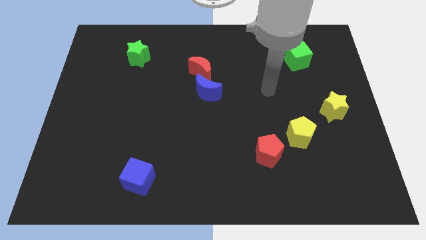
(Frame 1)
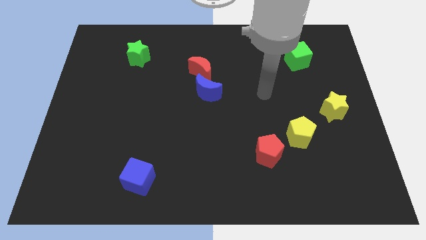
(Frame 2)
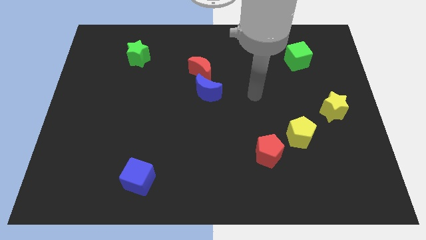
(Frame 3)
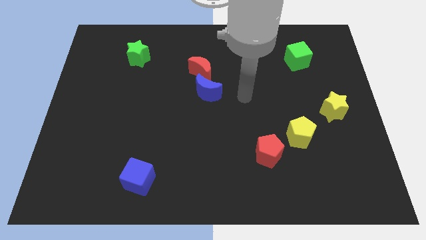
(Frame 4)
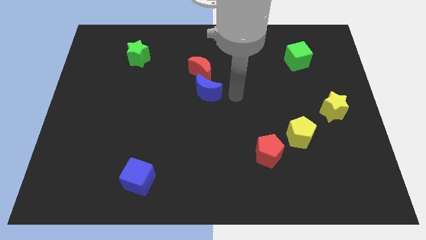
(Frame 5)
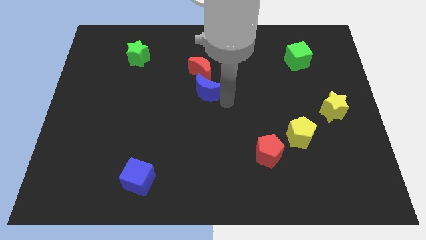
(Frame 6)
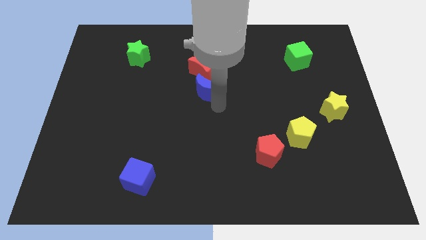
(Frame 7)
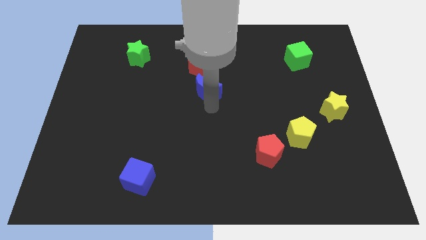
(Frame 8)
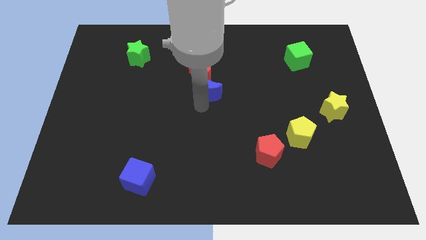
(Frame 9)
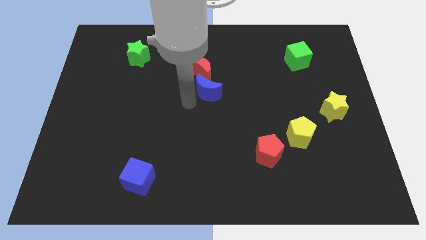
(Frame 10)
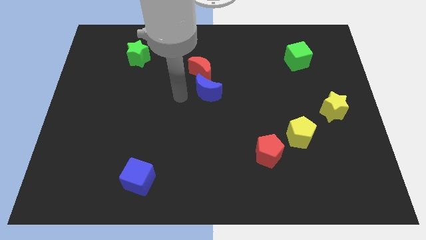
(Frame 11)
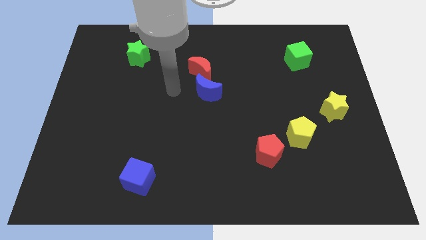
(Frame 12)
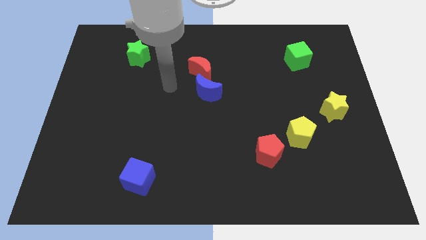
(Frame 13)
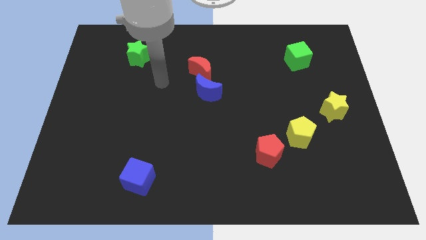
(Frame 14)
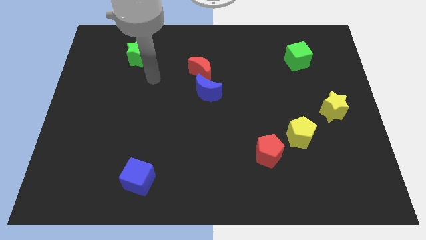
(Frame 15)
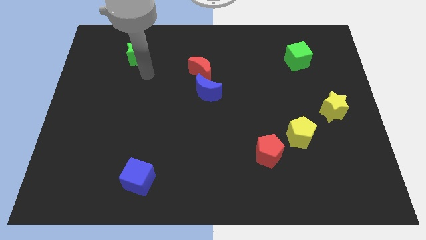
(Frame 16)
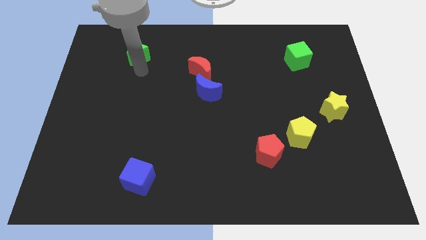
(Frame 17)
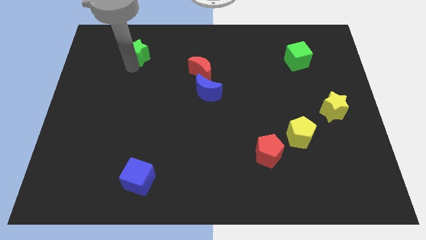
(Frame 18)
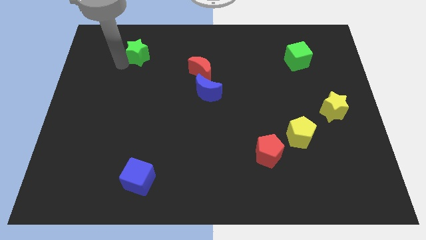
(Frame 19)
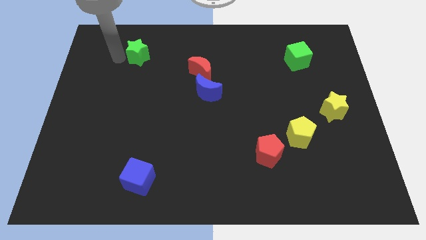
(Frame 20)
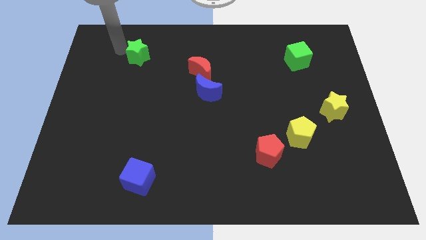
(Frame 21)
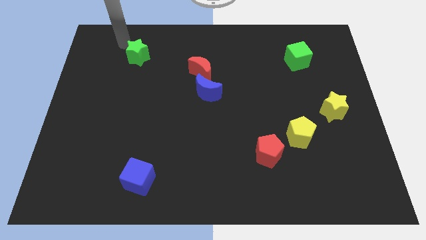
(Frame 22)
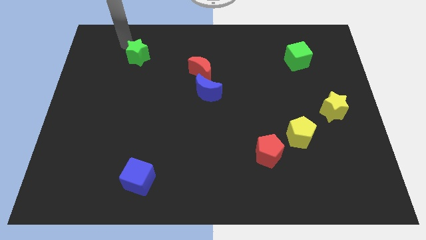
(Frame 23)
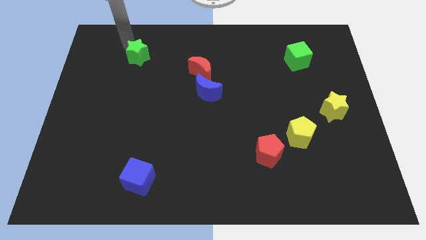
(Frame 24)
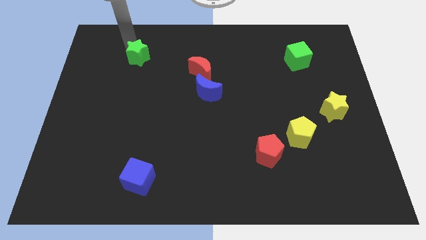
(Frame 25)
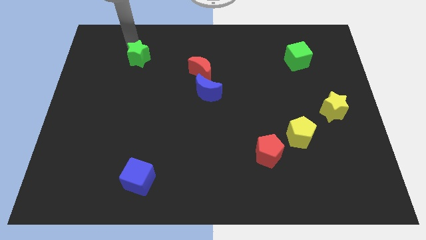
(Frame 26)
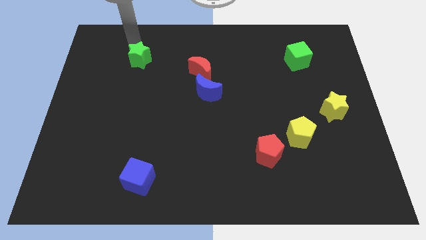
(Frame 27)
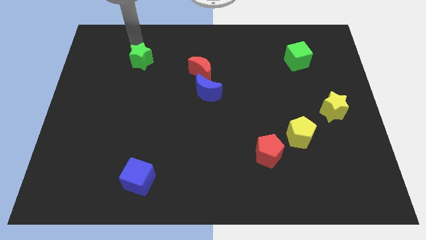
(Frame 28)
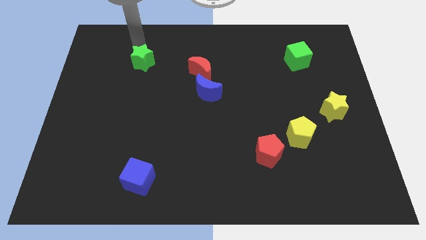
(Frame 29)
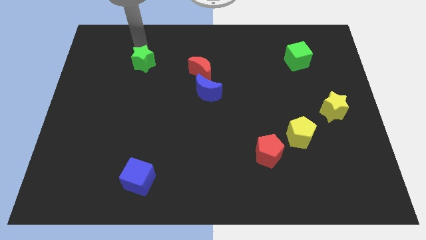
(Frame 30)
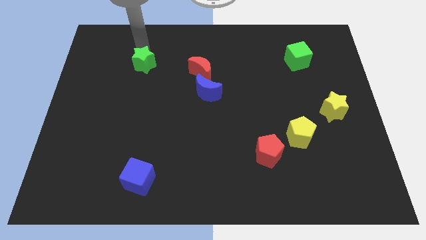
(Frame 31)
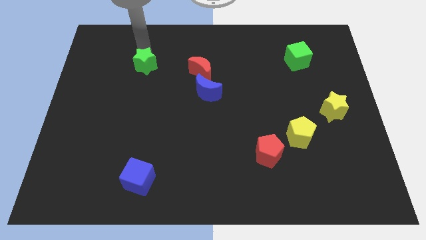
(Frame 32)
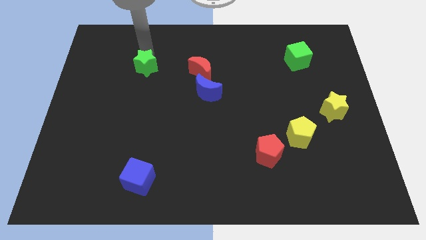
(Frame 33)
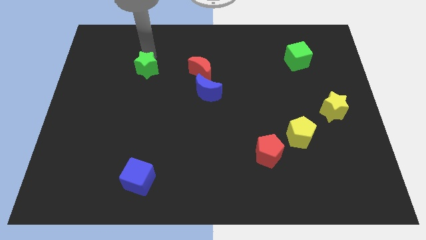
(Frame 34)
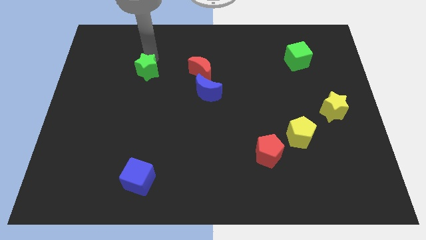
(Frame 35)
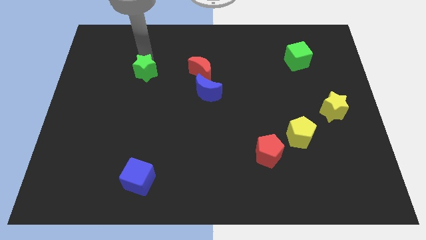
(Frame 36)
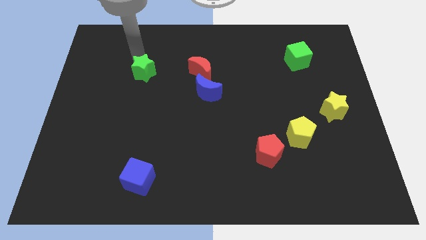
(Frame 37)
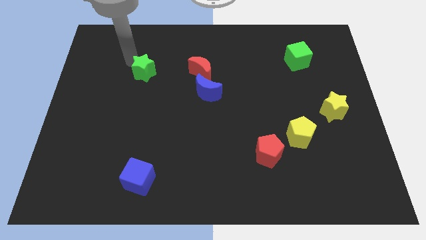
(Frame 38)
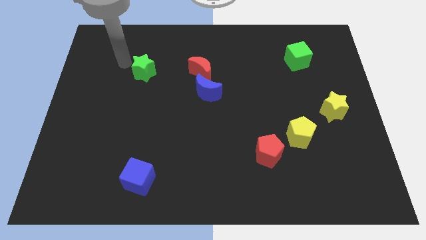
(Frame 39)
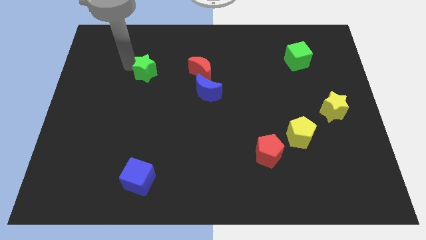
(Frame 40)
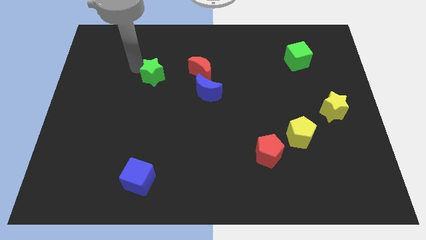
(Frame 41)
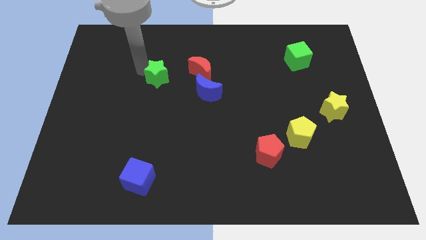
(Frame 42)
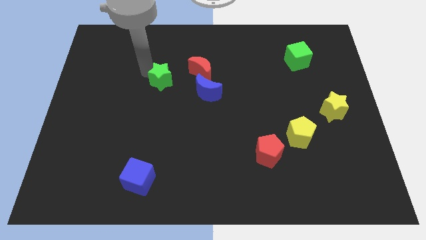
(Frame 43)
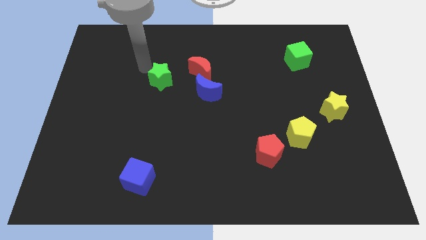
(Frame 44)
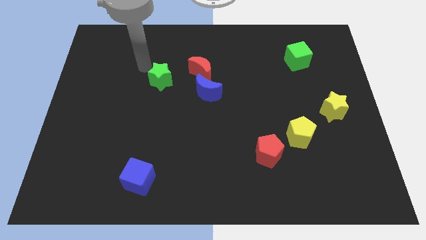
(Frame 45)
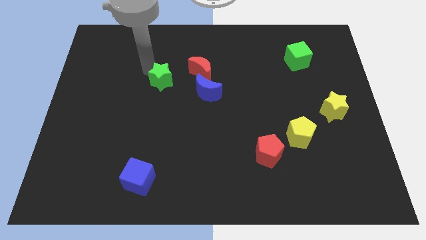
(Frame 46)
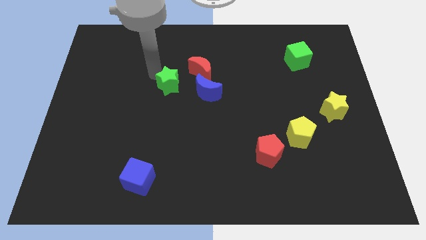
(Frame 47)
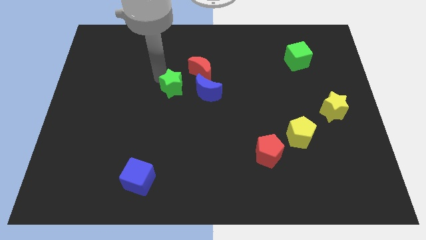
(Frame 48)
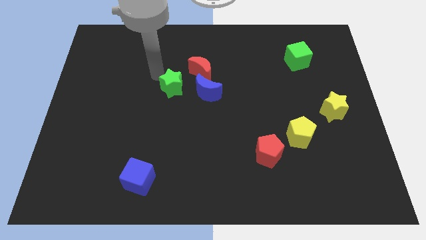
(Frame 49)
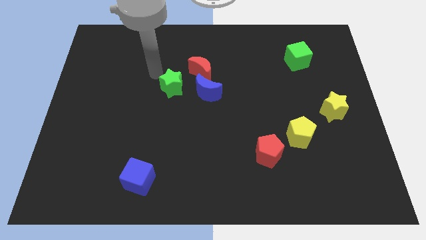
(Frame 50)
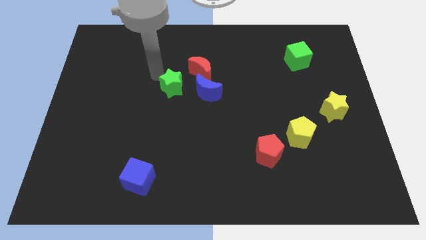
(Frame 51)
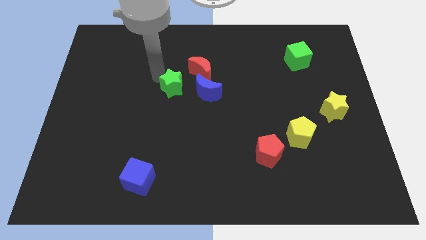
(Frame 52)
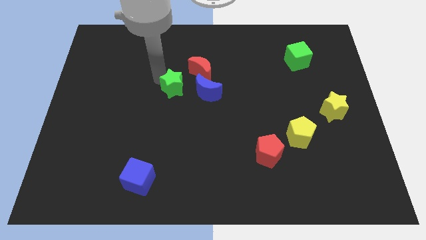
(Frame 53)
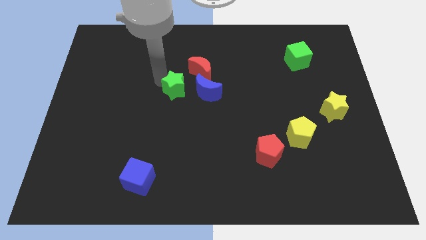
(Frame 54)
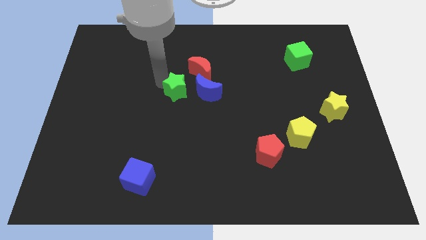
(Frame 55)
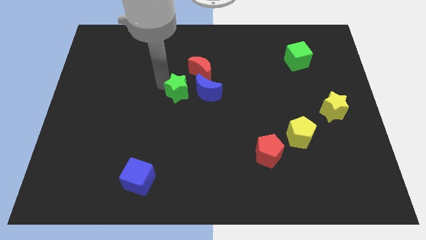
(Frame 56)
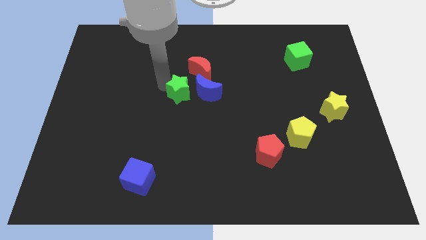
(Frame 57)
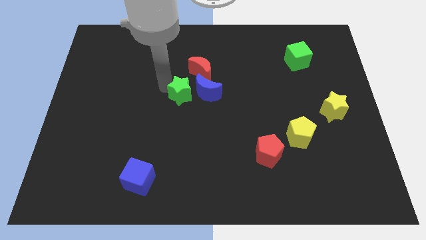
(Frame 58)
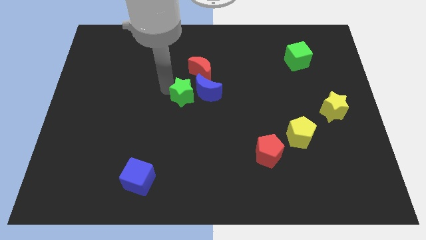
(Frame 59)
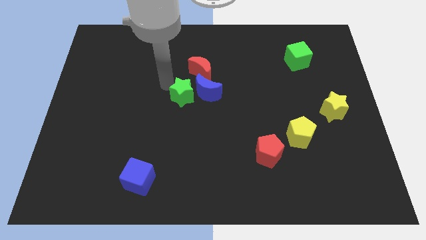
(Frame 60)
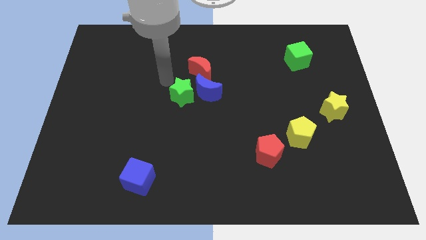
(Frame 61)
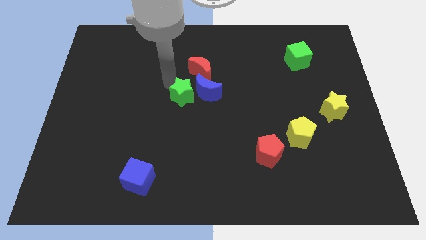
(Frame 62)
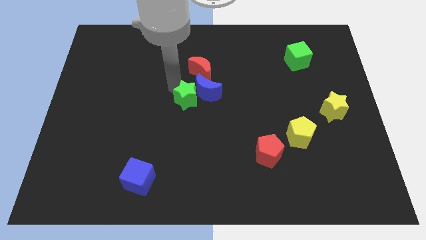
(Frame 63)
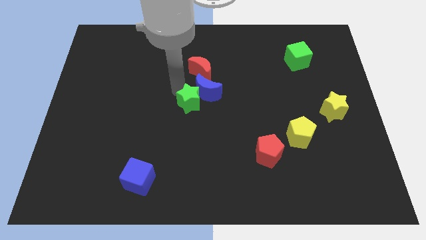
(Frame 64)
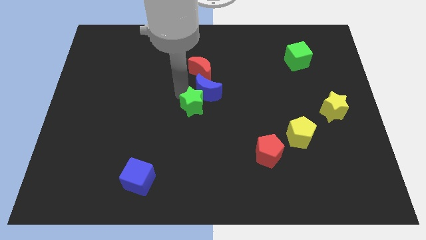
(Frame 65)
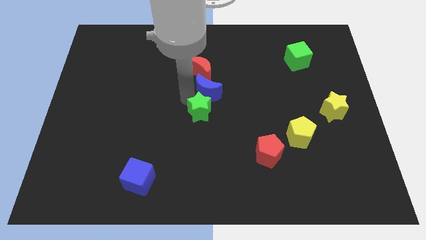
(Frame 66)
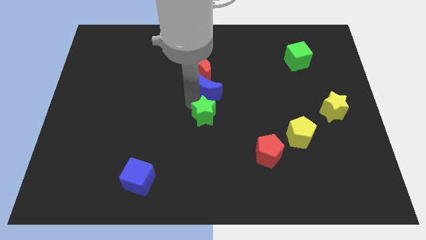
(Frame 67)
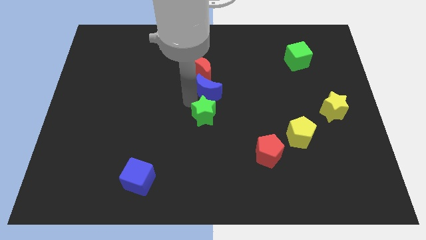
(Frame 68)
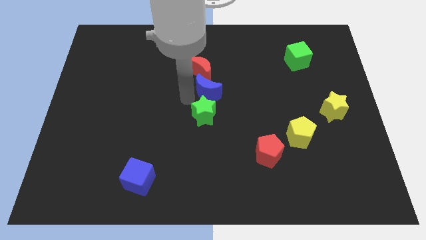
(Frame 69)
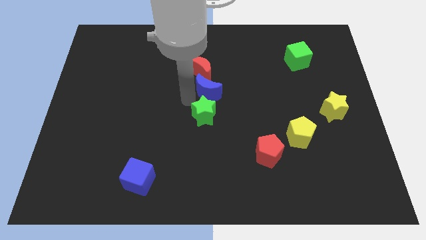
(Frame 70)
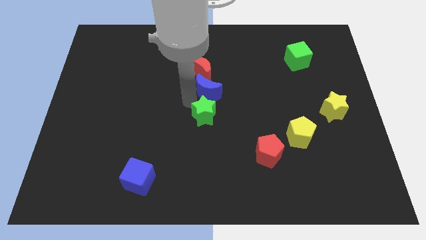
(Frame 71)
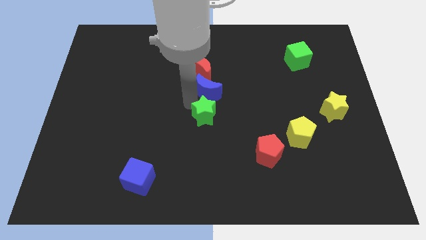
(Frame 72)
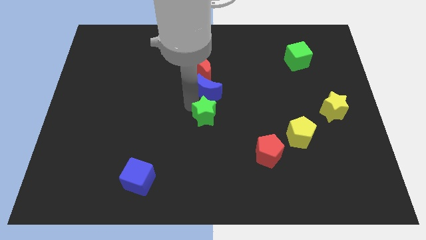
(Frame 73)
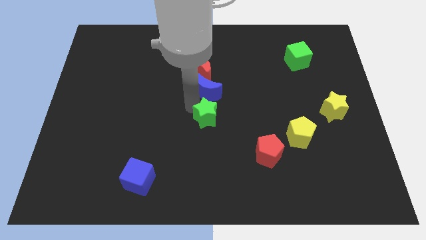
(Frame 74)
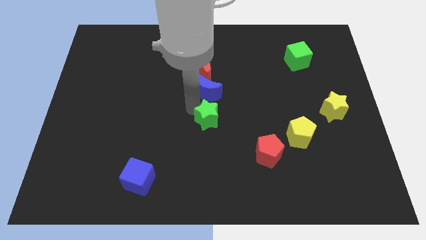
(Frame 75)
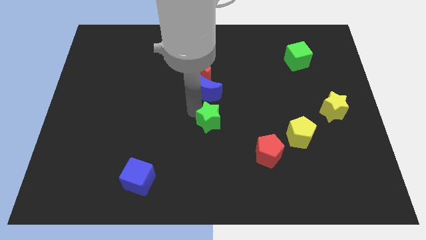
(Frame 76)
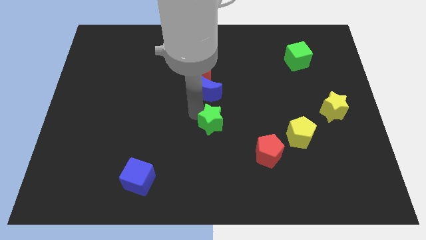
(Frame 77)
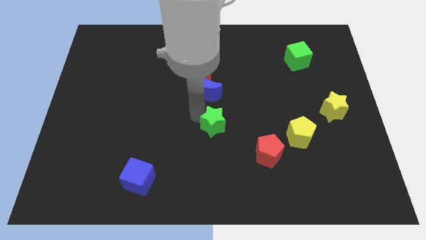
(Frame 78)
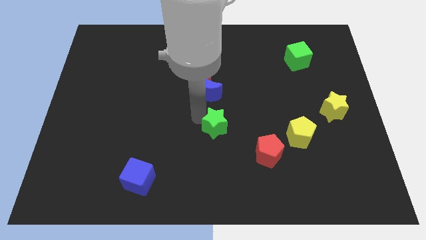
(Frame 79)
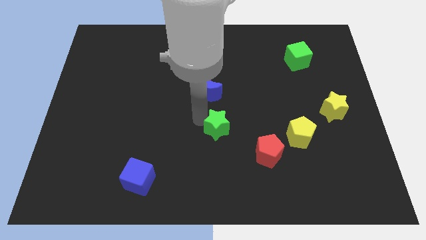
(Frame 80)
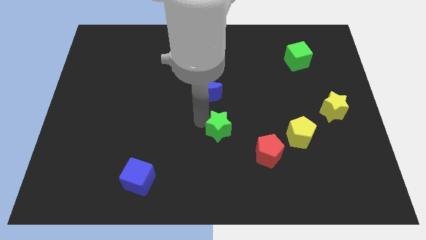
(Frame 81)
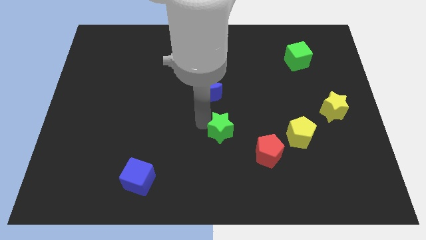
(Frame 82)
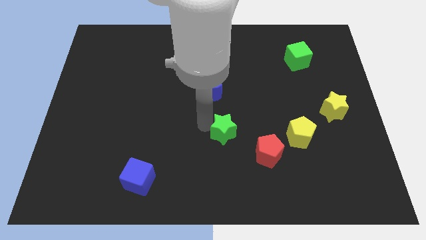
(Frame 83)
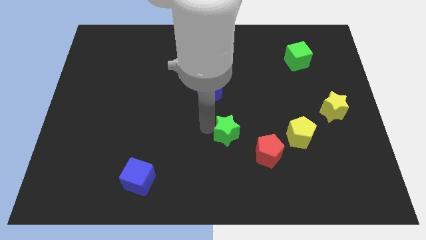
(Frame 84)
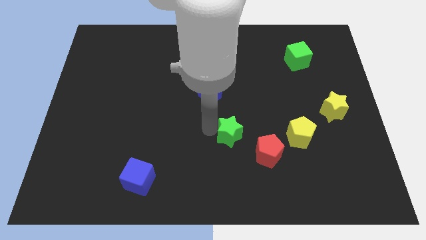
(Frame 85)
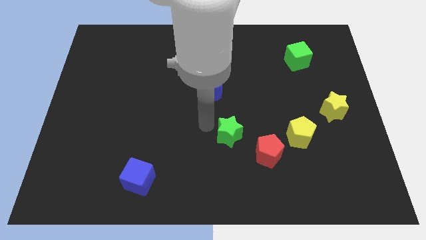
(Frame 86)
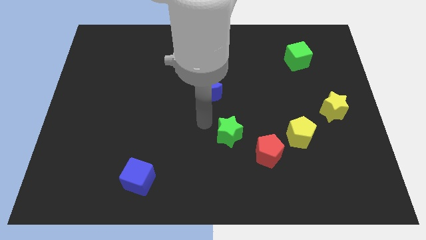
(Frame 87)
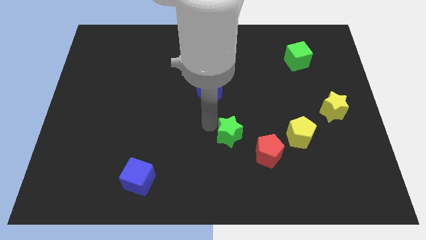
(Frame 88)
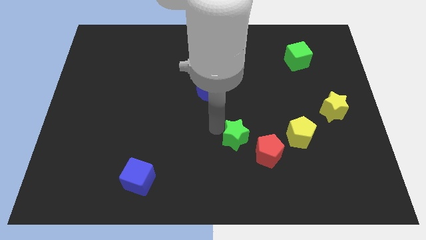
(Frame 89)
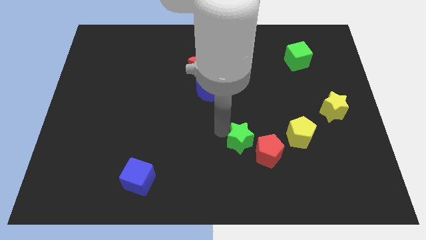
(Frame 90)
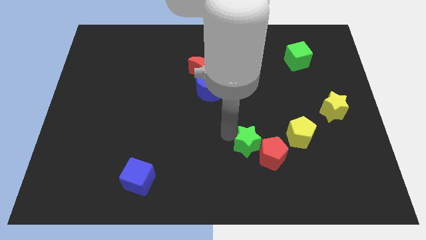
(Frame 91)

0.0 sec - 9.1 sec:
move the green star close to the red pentagon
